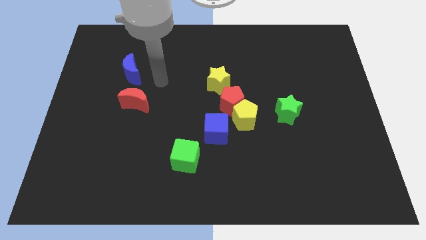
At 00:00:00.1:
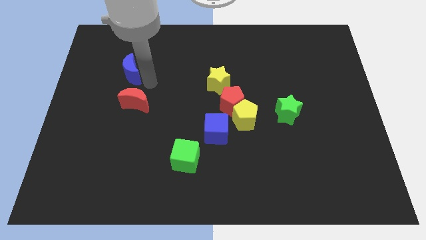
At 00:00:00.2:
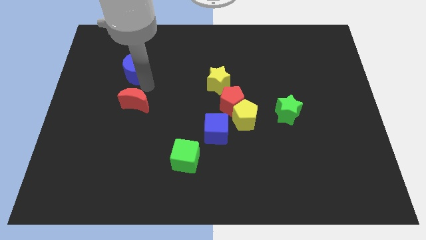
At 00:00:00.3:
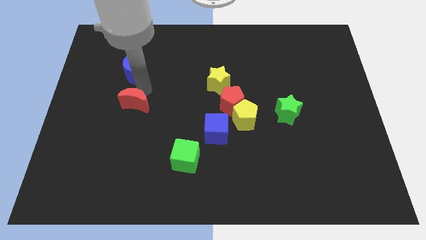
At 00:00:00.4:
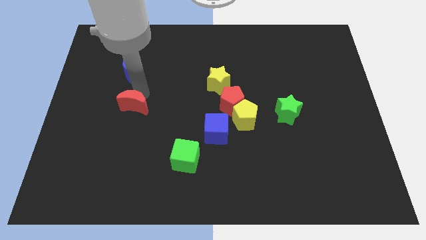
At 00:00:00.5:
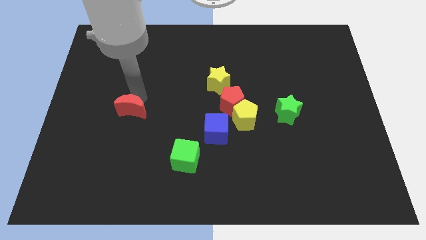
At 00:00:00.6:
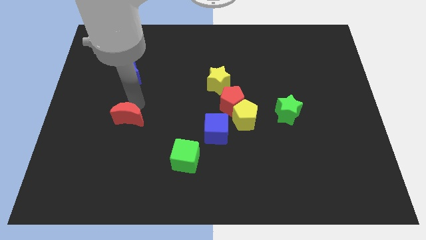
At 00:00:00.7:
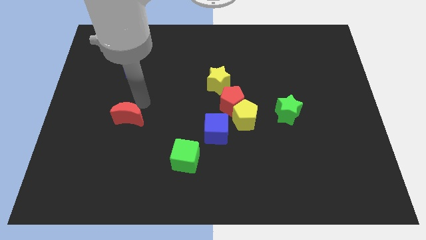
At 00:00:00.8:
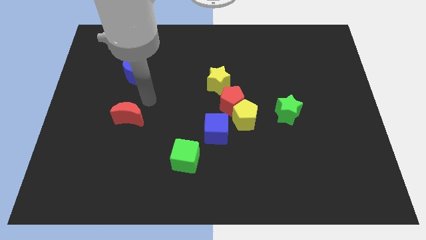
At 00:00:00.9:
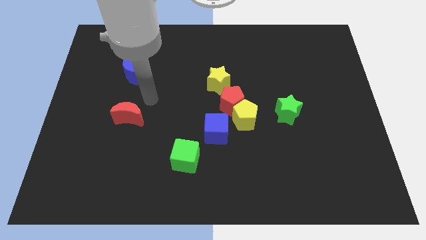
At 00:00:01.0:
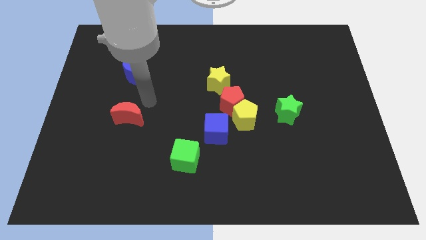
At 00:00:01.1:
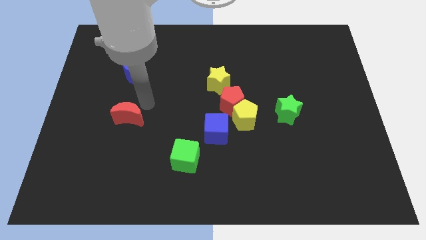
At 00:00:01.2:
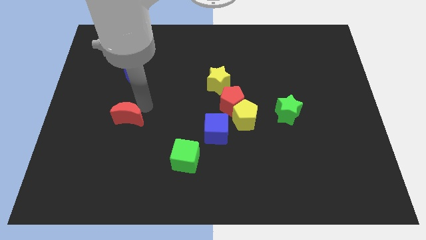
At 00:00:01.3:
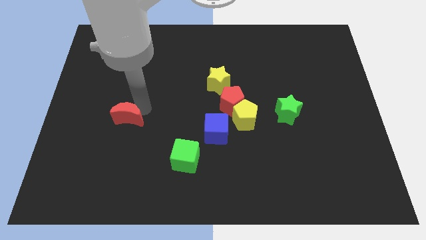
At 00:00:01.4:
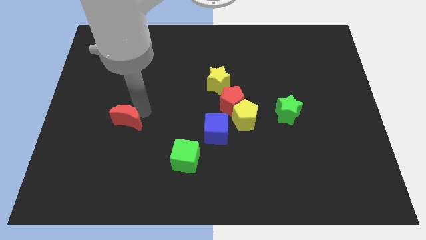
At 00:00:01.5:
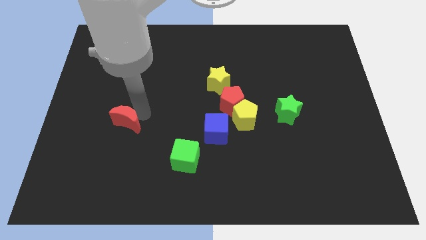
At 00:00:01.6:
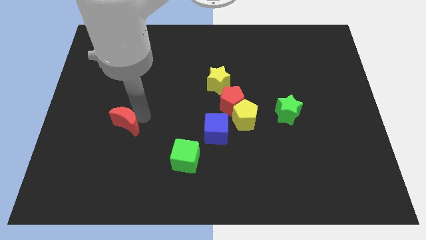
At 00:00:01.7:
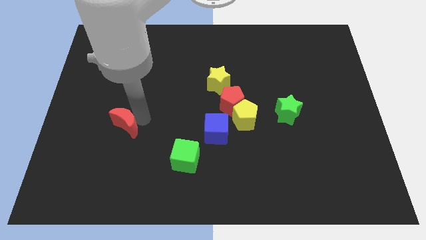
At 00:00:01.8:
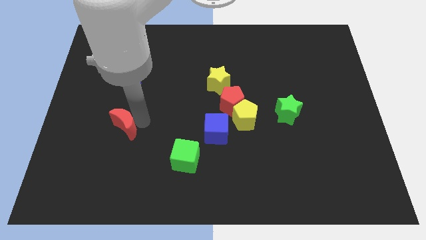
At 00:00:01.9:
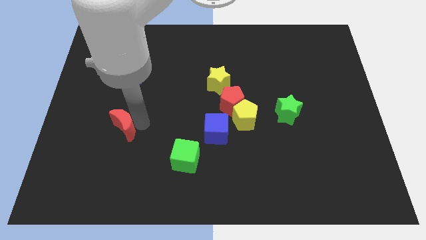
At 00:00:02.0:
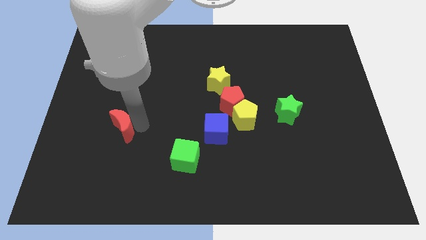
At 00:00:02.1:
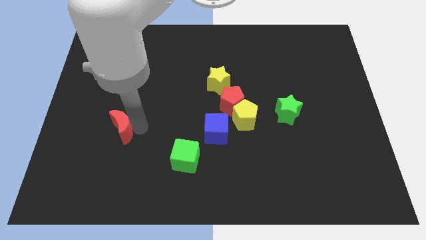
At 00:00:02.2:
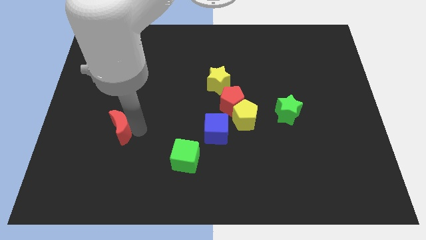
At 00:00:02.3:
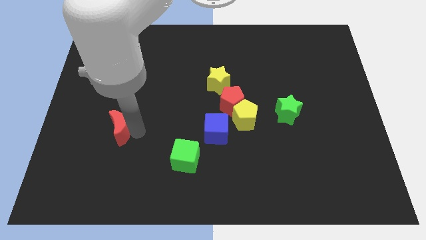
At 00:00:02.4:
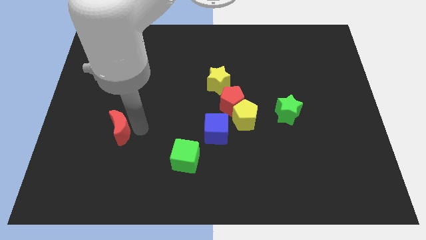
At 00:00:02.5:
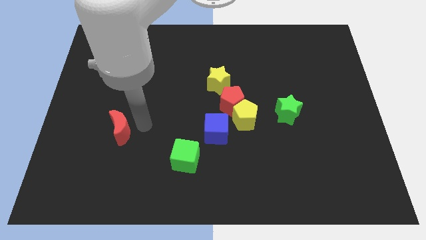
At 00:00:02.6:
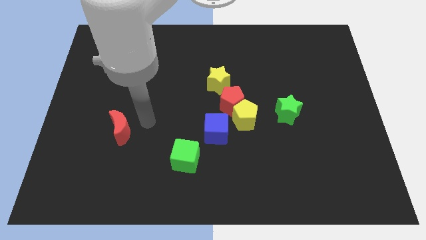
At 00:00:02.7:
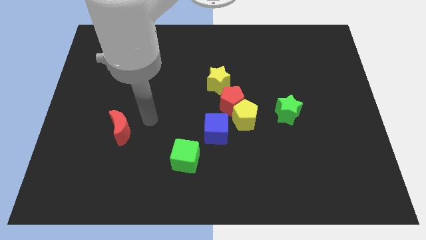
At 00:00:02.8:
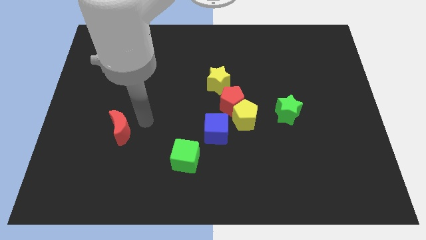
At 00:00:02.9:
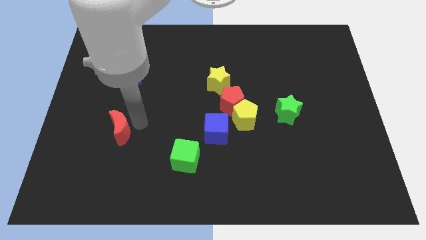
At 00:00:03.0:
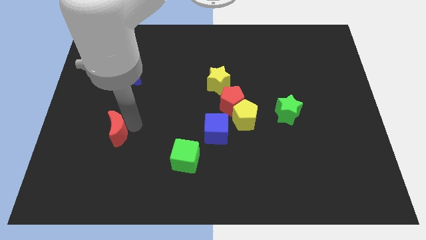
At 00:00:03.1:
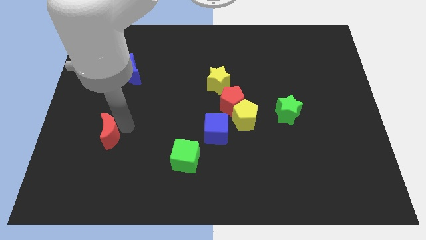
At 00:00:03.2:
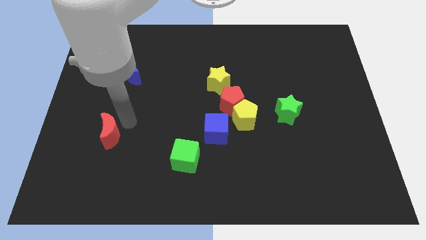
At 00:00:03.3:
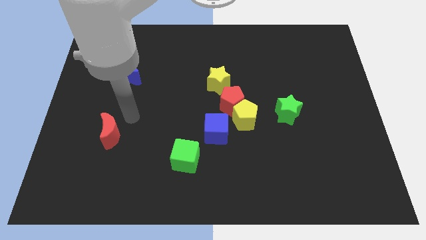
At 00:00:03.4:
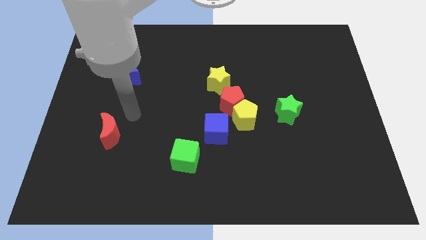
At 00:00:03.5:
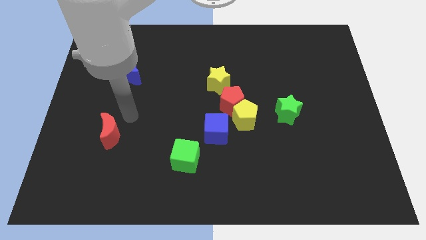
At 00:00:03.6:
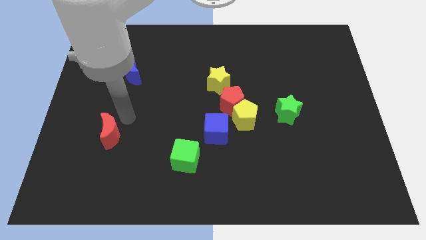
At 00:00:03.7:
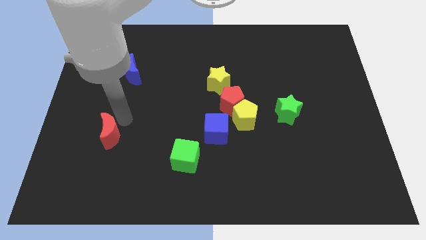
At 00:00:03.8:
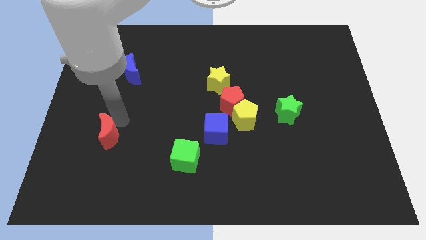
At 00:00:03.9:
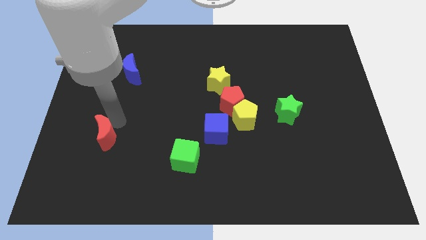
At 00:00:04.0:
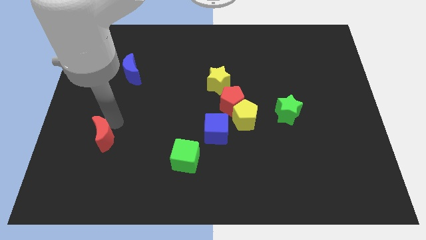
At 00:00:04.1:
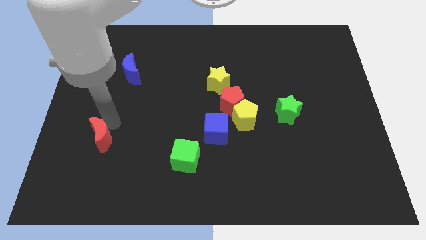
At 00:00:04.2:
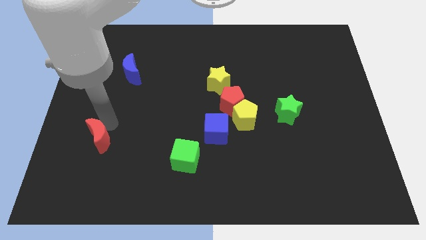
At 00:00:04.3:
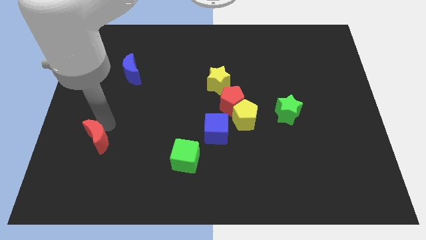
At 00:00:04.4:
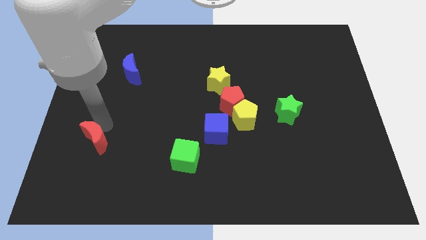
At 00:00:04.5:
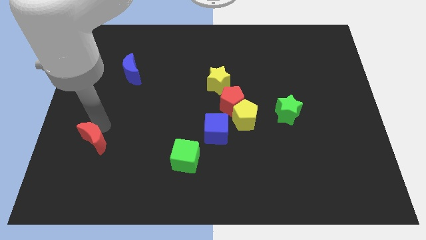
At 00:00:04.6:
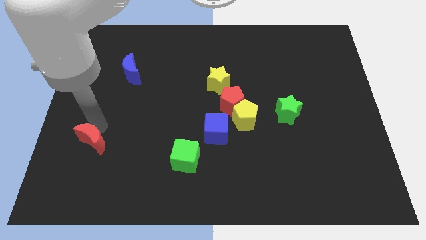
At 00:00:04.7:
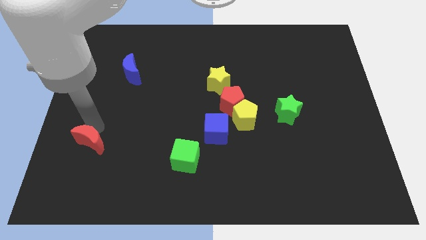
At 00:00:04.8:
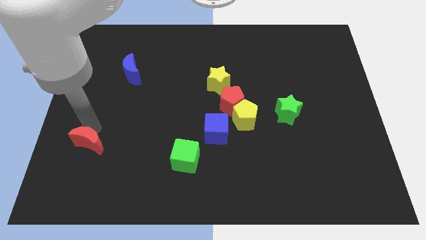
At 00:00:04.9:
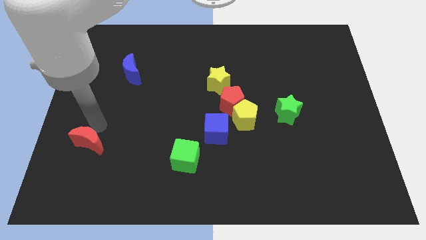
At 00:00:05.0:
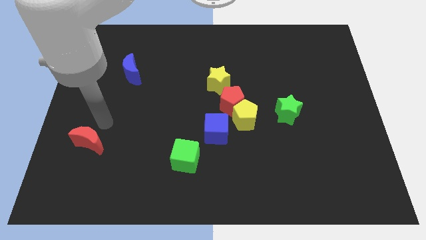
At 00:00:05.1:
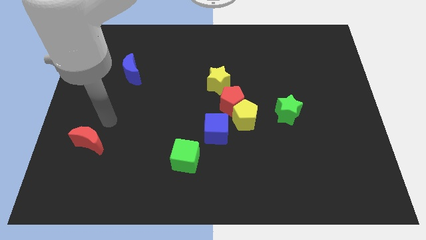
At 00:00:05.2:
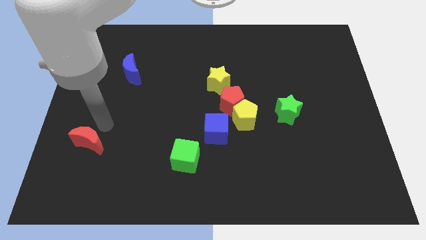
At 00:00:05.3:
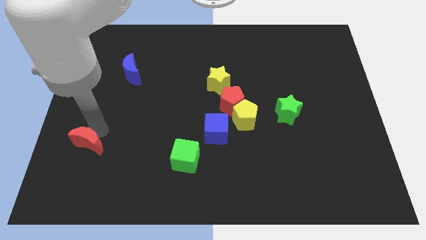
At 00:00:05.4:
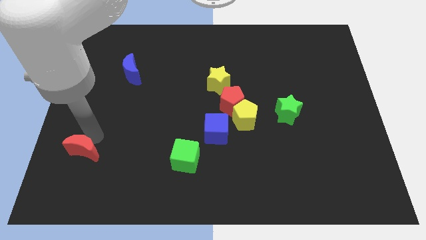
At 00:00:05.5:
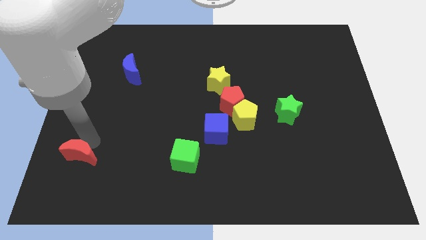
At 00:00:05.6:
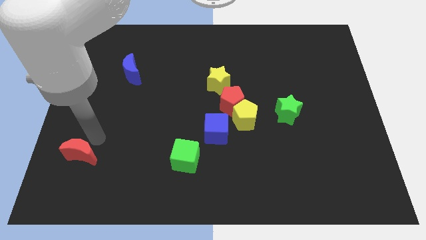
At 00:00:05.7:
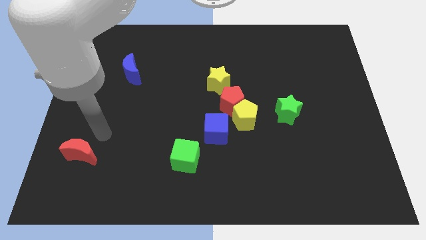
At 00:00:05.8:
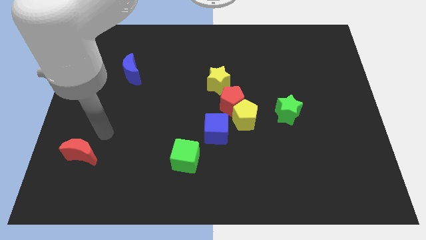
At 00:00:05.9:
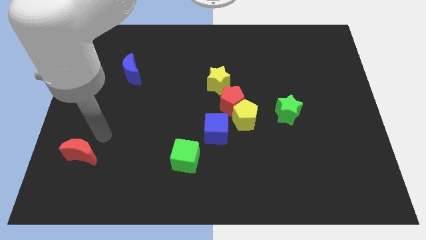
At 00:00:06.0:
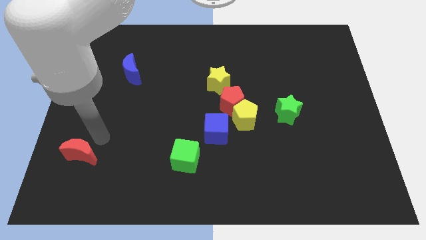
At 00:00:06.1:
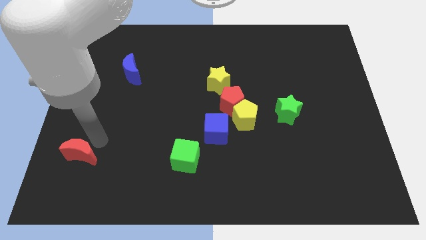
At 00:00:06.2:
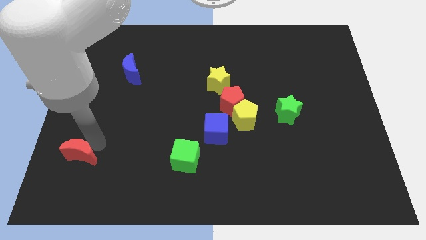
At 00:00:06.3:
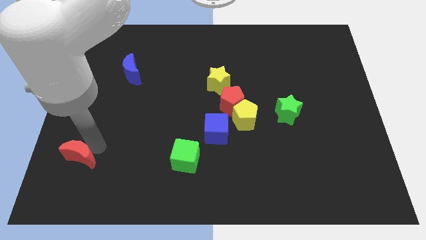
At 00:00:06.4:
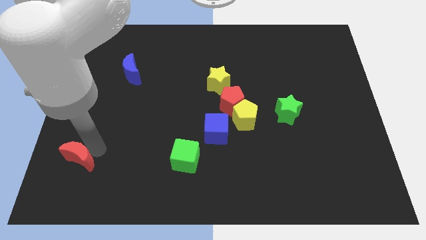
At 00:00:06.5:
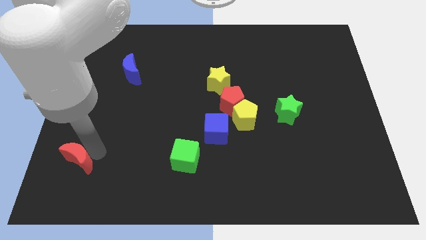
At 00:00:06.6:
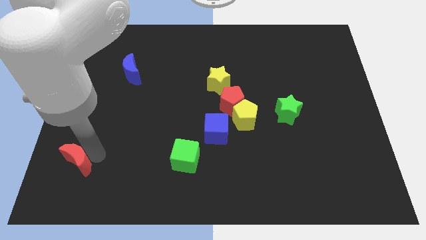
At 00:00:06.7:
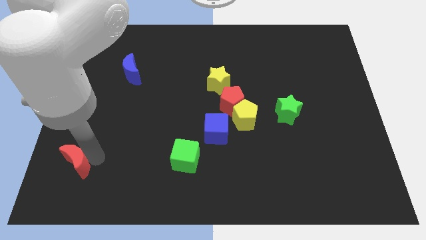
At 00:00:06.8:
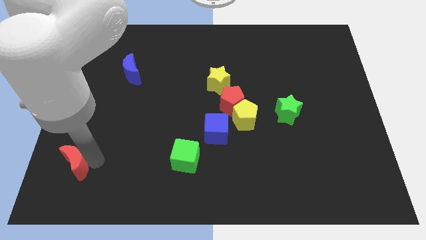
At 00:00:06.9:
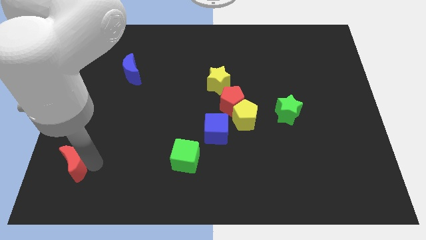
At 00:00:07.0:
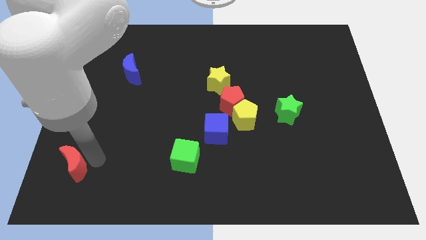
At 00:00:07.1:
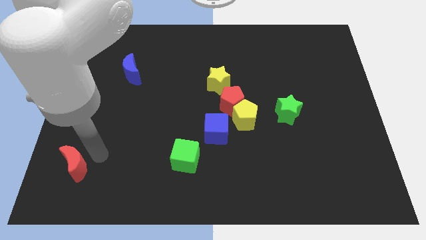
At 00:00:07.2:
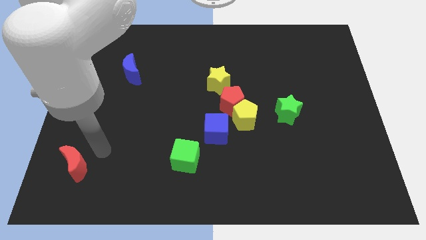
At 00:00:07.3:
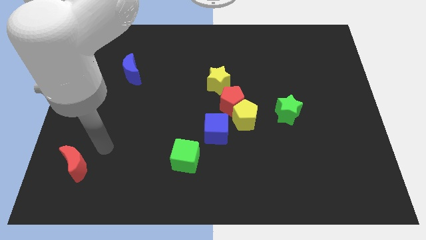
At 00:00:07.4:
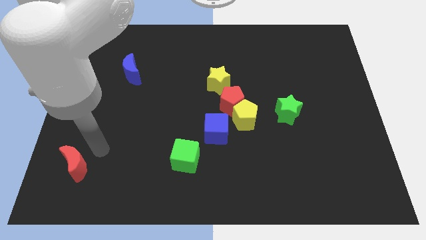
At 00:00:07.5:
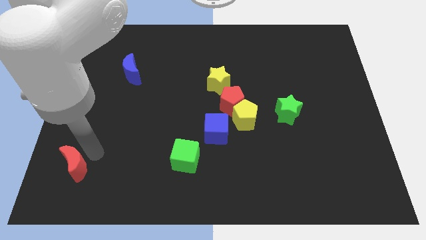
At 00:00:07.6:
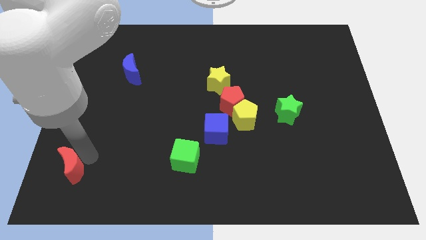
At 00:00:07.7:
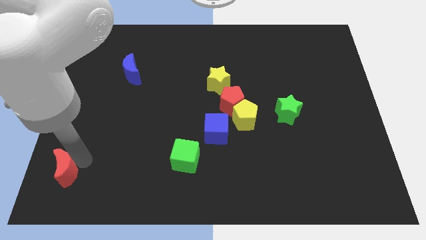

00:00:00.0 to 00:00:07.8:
slide the red moon to the bottom left of the board
